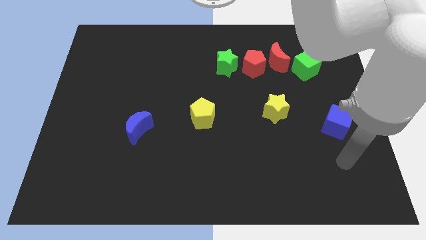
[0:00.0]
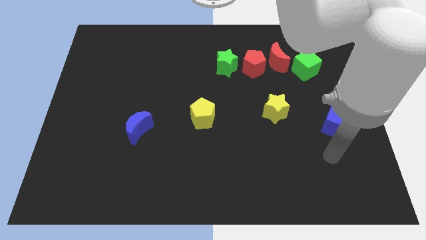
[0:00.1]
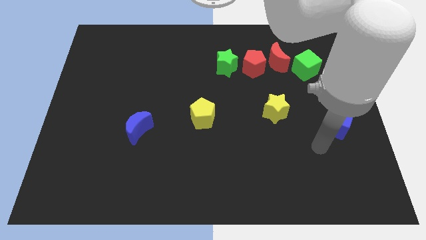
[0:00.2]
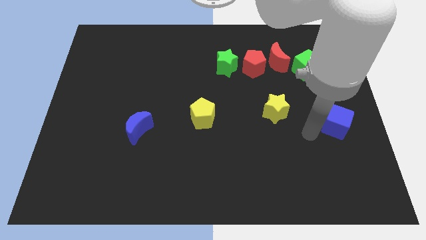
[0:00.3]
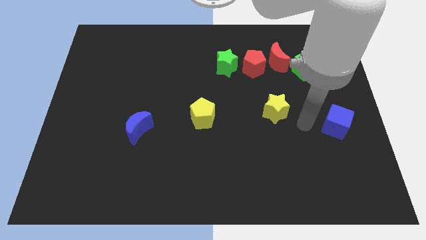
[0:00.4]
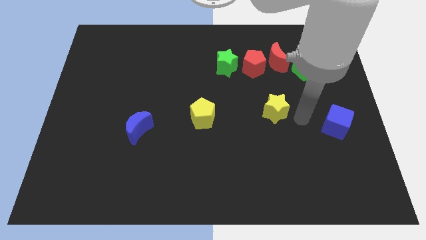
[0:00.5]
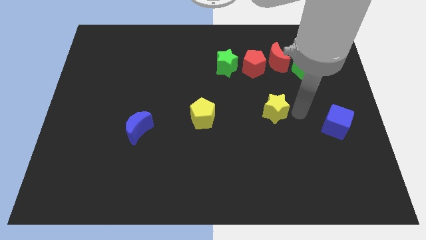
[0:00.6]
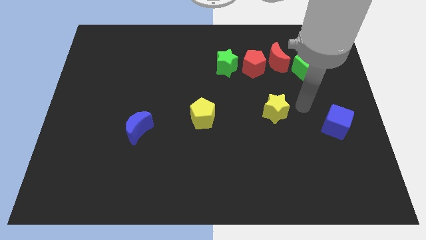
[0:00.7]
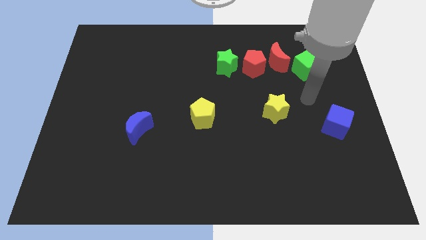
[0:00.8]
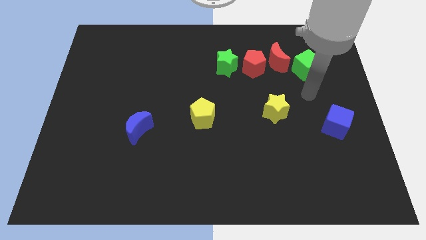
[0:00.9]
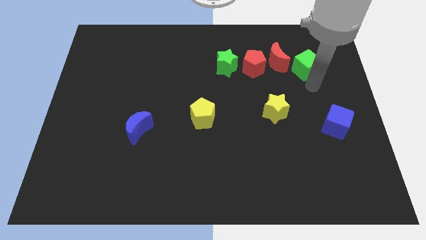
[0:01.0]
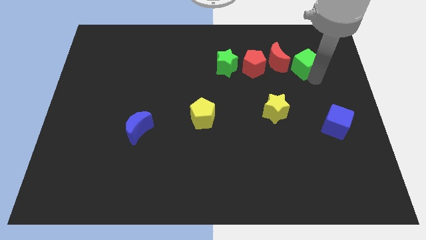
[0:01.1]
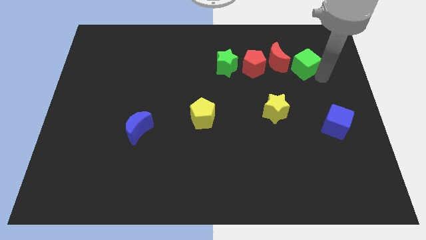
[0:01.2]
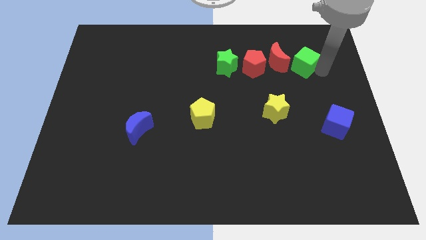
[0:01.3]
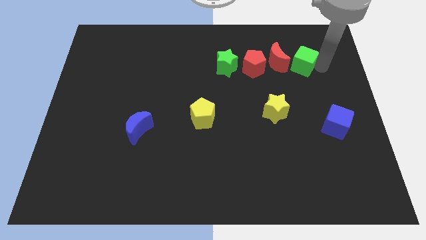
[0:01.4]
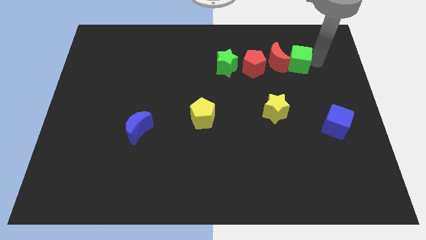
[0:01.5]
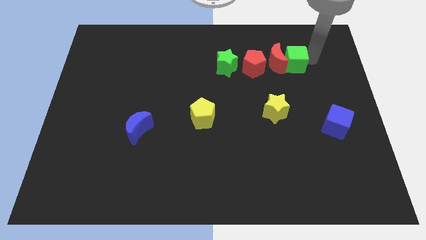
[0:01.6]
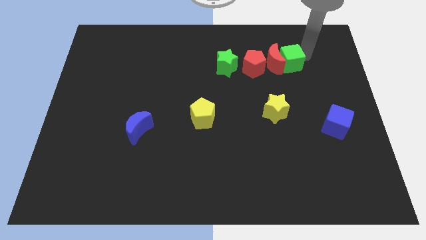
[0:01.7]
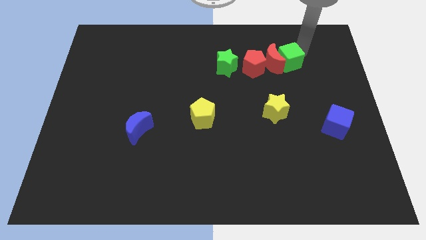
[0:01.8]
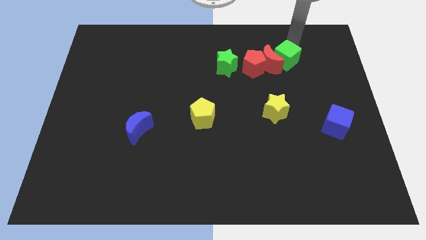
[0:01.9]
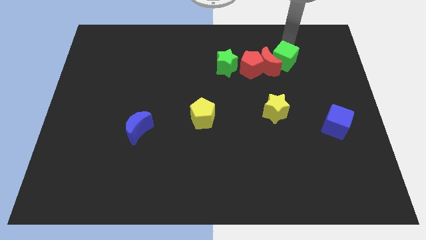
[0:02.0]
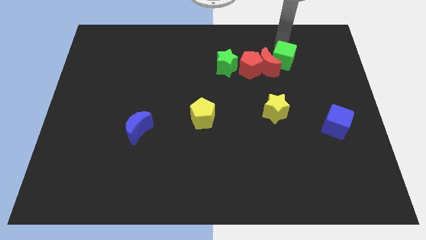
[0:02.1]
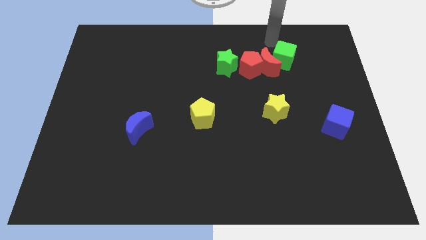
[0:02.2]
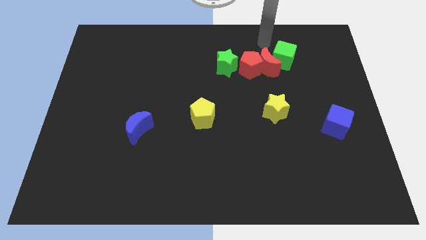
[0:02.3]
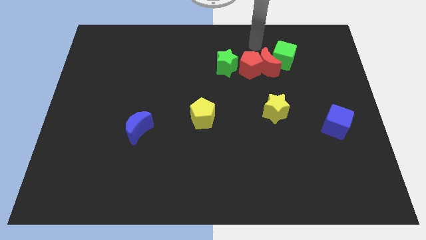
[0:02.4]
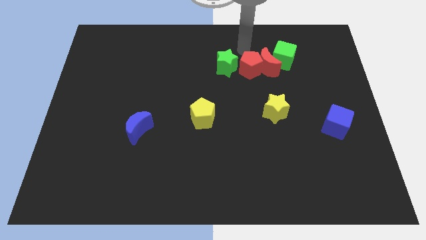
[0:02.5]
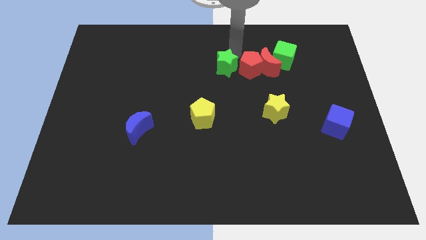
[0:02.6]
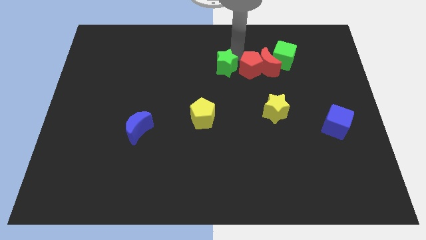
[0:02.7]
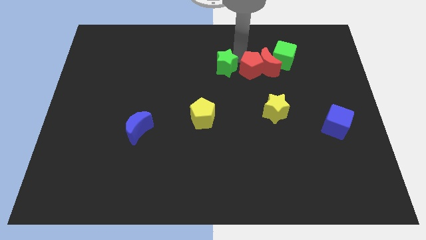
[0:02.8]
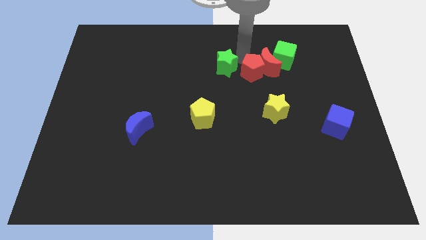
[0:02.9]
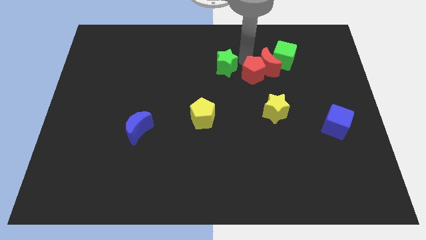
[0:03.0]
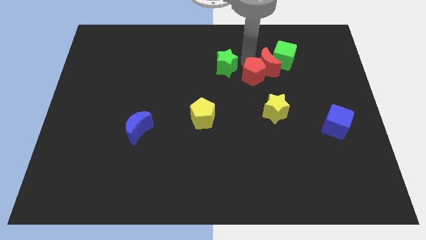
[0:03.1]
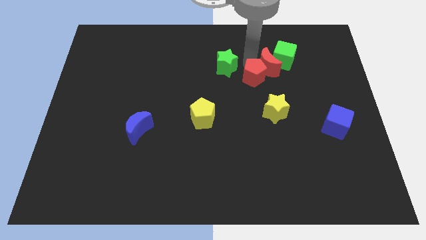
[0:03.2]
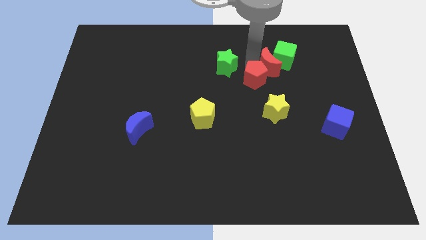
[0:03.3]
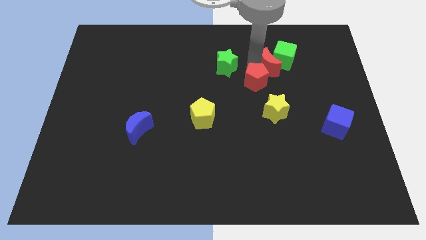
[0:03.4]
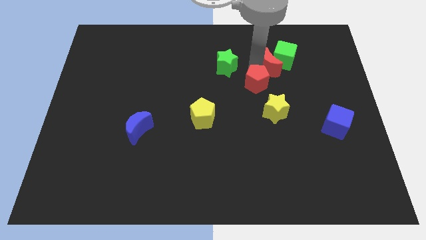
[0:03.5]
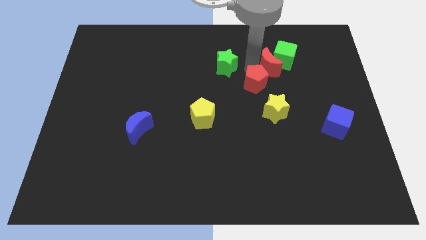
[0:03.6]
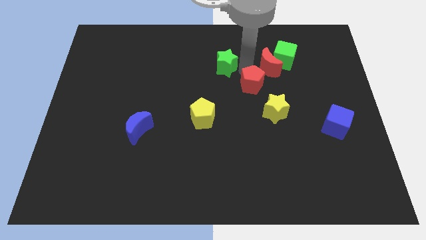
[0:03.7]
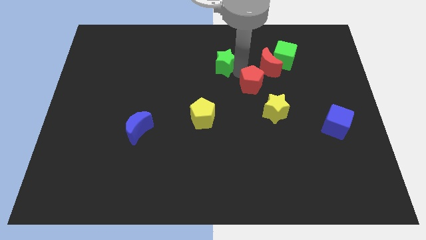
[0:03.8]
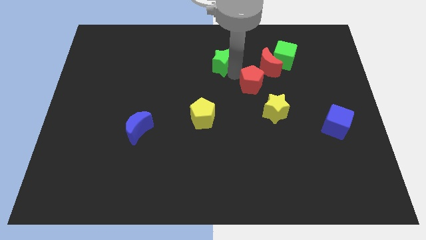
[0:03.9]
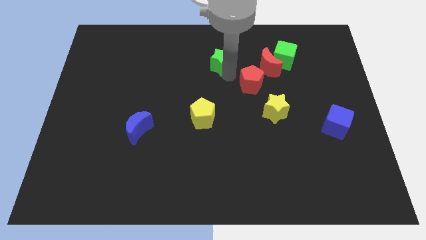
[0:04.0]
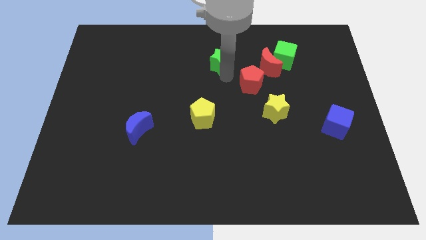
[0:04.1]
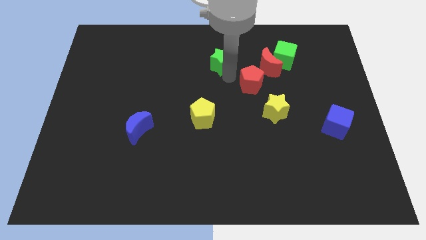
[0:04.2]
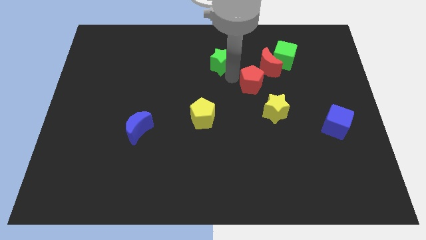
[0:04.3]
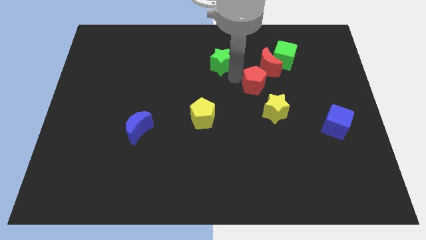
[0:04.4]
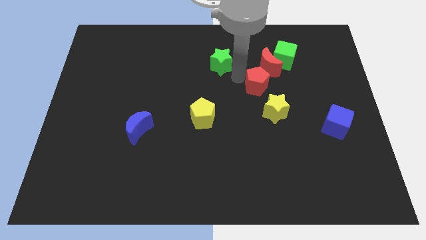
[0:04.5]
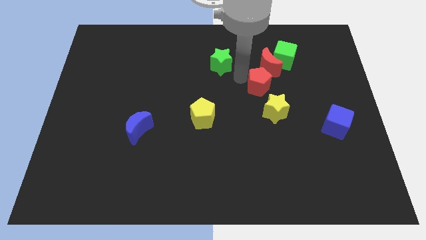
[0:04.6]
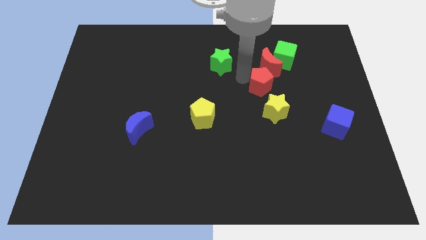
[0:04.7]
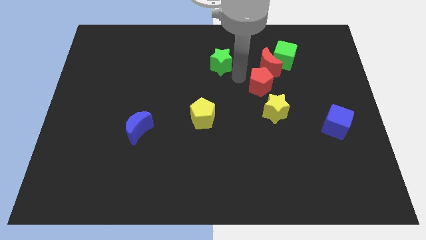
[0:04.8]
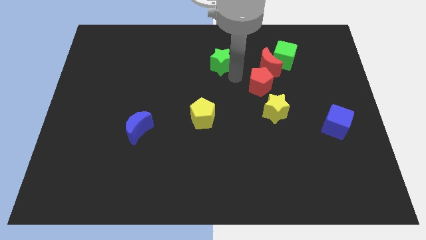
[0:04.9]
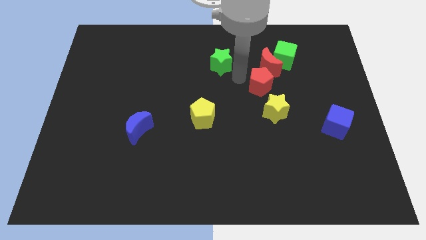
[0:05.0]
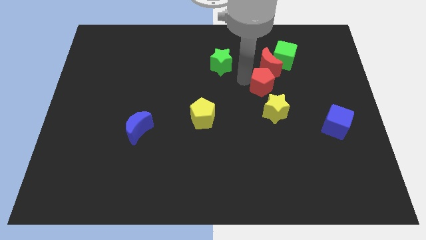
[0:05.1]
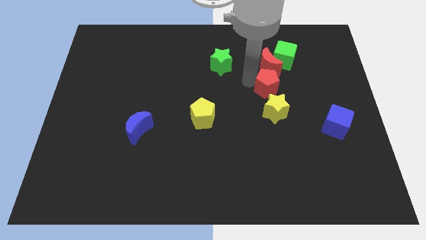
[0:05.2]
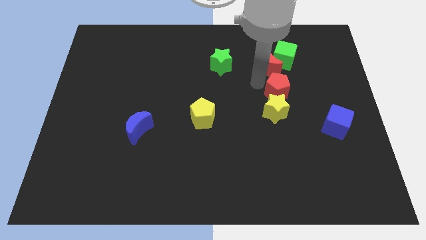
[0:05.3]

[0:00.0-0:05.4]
push the red pentagon diagonally downwards and right slightly

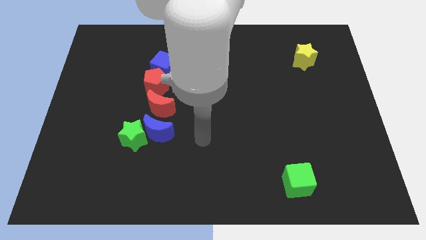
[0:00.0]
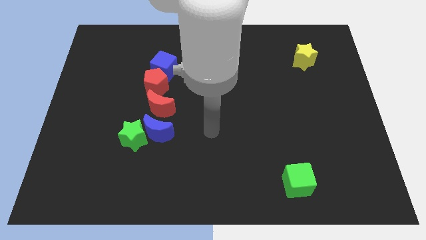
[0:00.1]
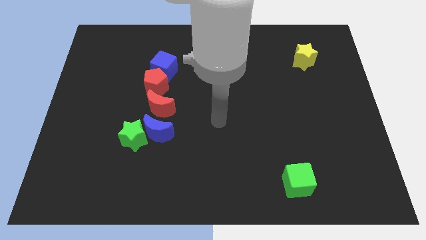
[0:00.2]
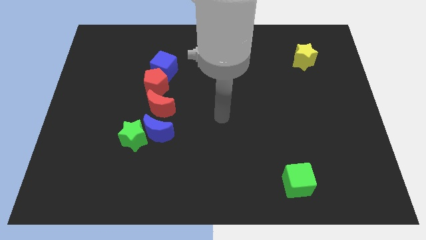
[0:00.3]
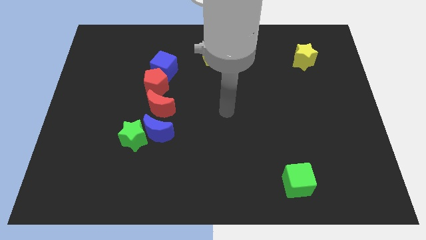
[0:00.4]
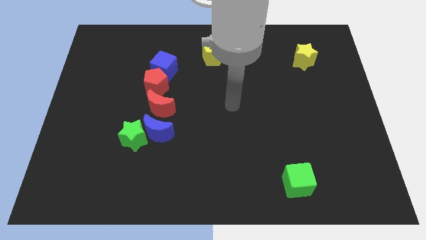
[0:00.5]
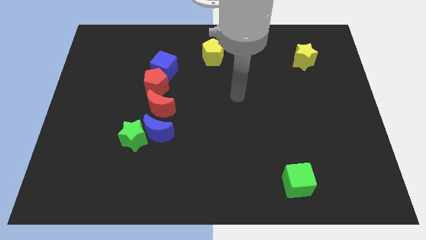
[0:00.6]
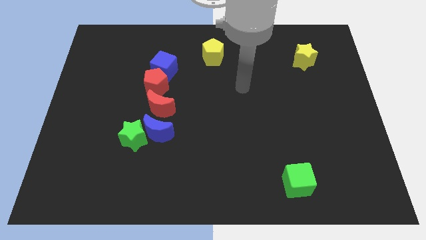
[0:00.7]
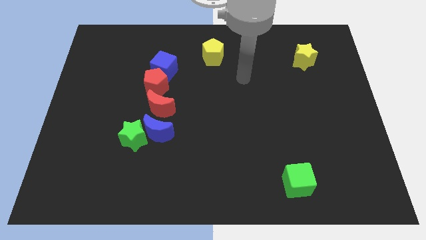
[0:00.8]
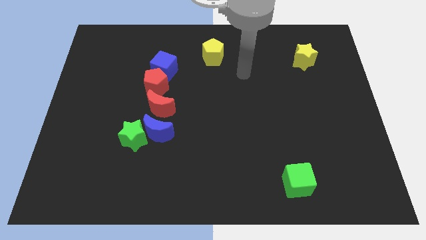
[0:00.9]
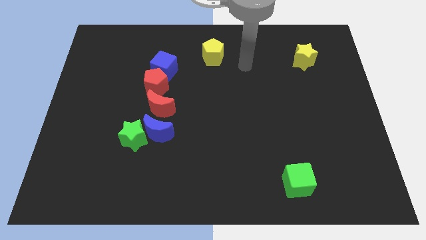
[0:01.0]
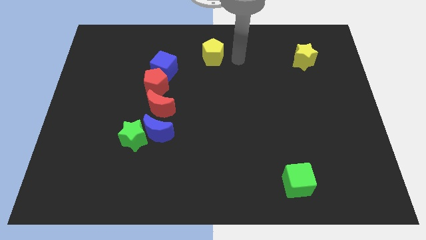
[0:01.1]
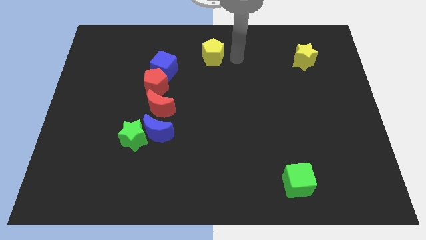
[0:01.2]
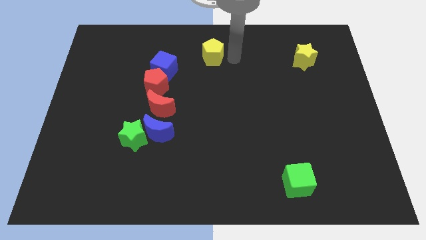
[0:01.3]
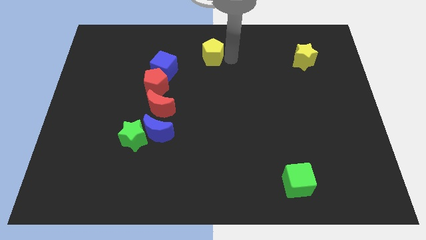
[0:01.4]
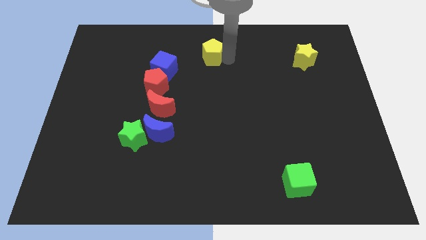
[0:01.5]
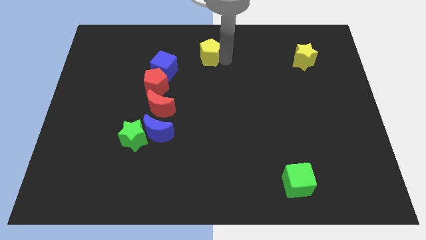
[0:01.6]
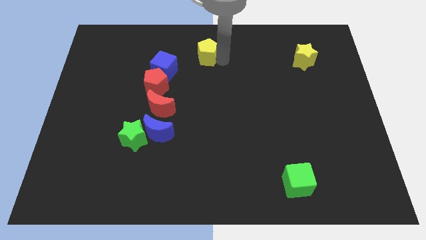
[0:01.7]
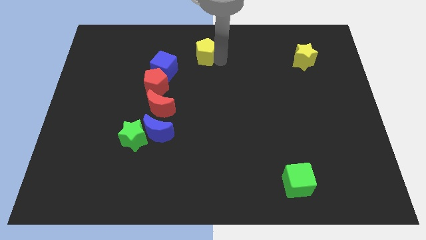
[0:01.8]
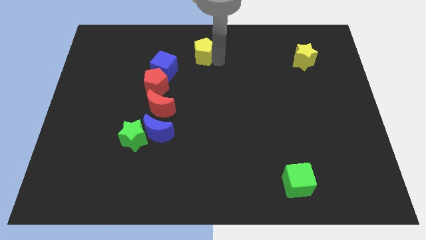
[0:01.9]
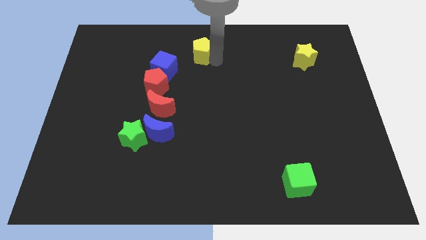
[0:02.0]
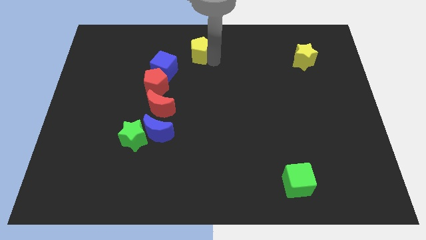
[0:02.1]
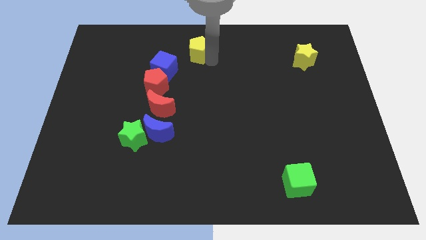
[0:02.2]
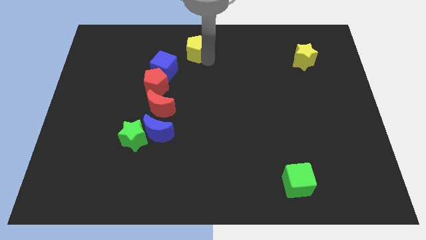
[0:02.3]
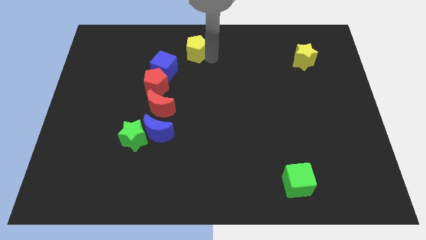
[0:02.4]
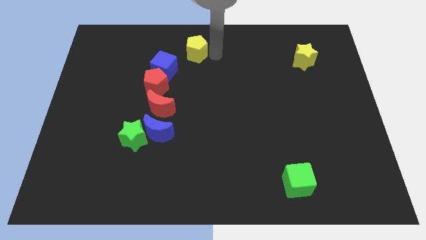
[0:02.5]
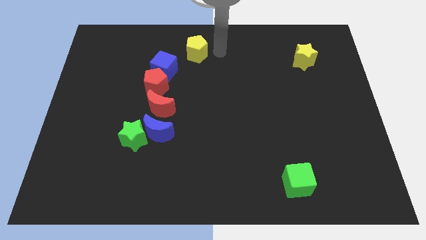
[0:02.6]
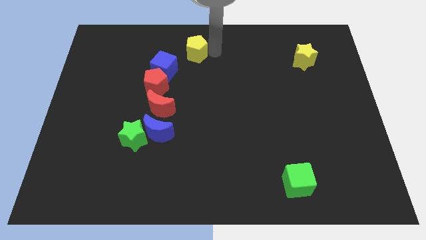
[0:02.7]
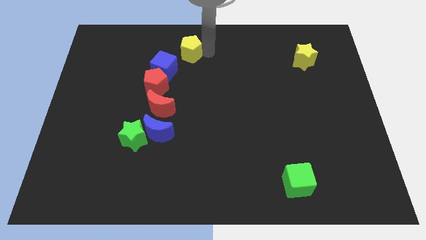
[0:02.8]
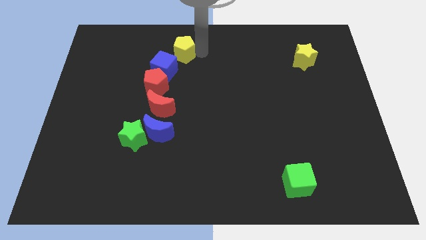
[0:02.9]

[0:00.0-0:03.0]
slide the yellow pentagon slightly to the left
